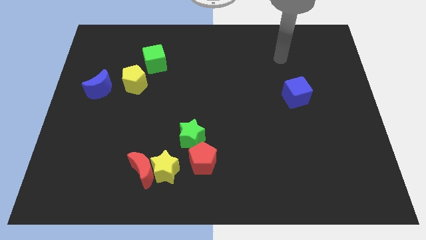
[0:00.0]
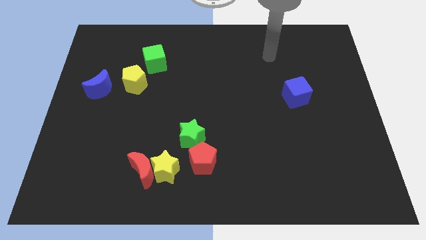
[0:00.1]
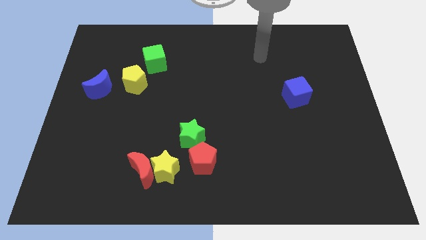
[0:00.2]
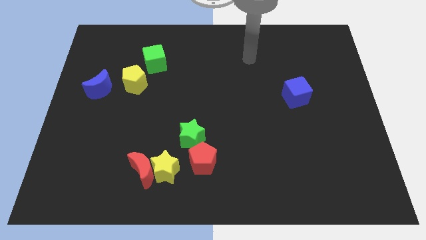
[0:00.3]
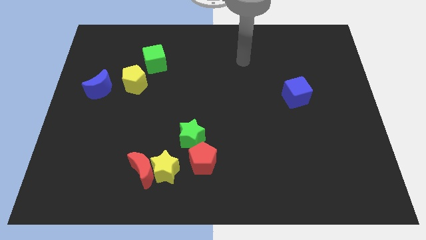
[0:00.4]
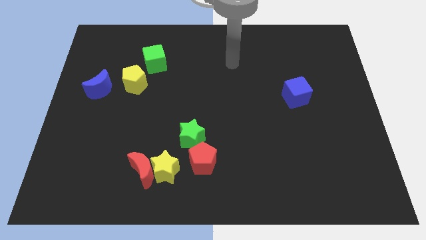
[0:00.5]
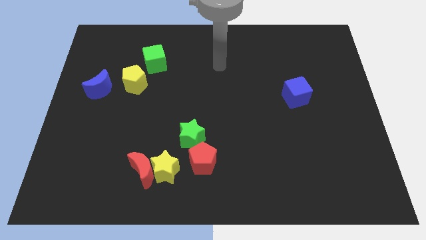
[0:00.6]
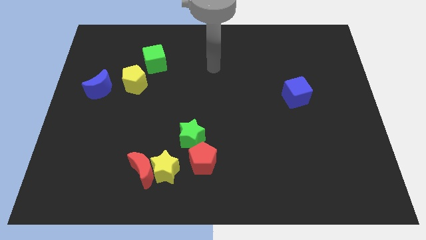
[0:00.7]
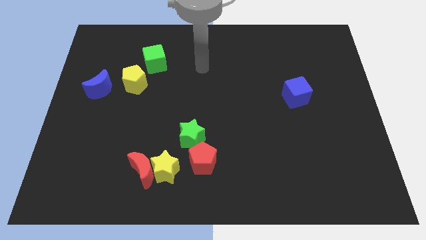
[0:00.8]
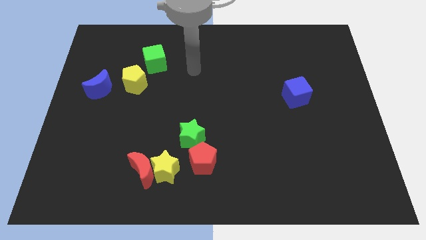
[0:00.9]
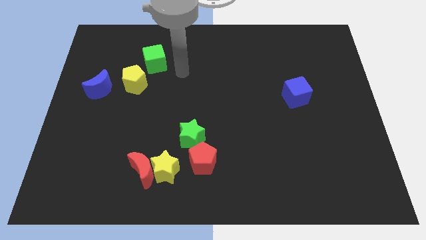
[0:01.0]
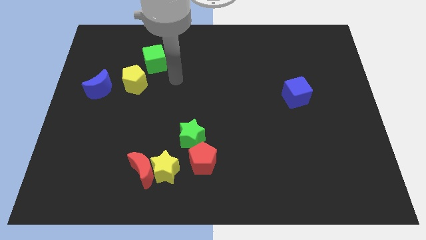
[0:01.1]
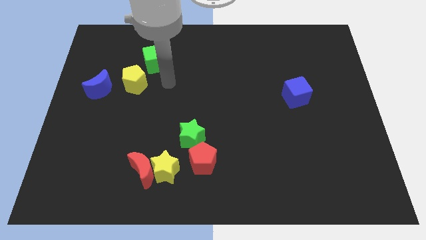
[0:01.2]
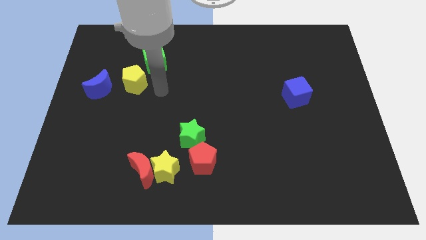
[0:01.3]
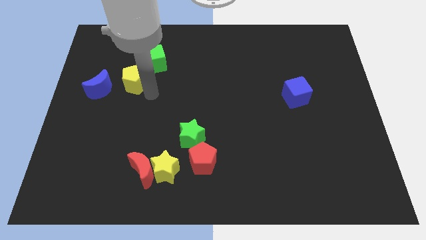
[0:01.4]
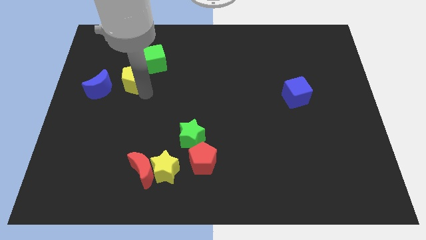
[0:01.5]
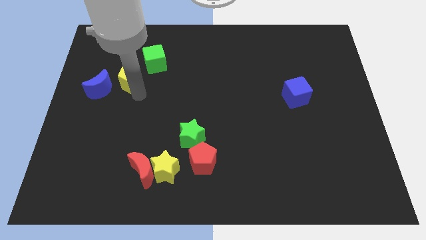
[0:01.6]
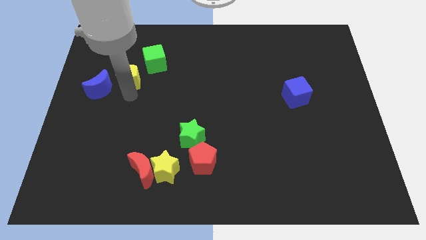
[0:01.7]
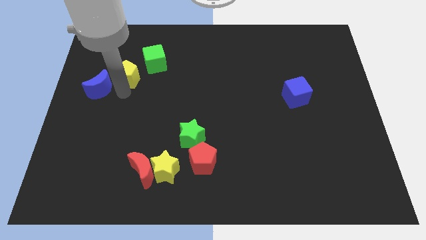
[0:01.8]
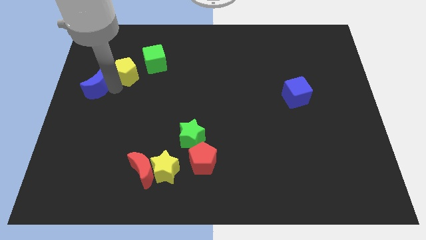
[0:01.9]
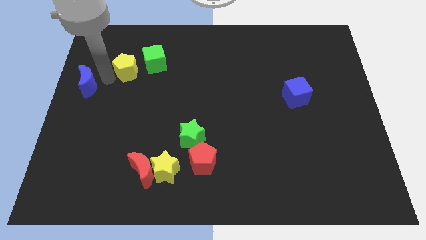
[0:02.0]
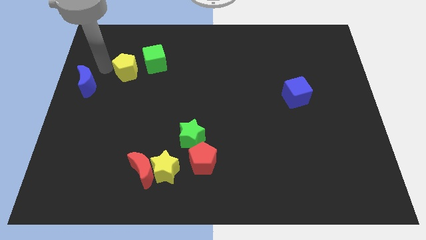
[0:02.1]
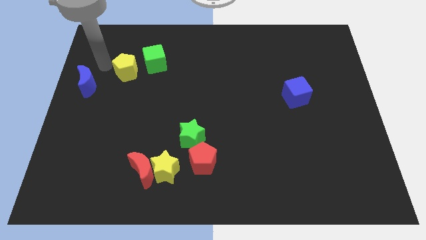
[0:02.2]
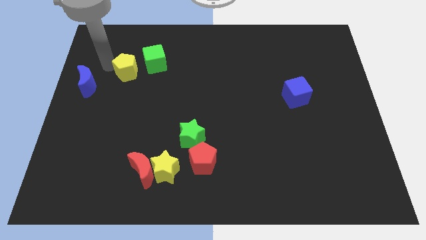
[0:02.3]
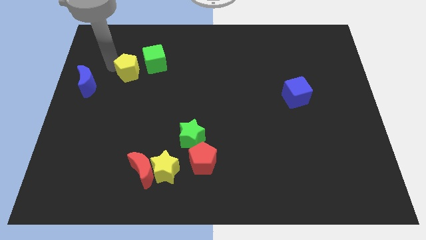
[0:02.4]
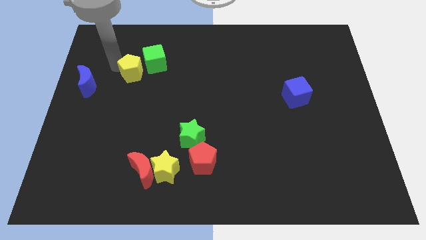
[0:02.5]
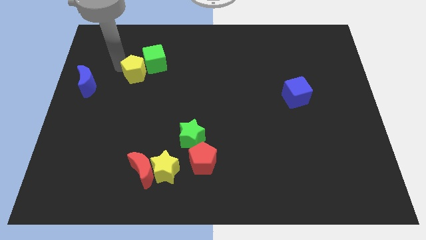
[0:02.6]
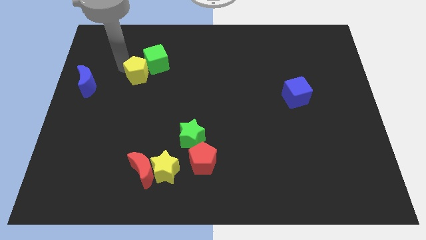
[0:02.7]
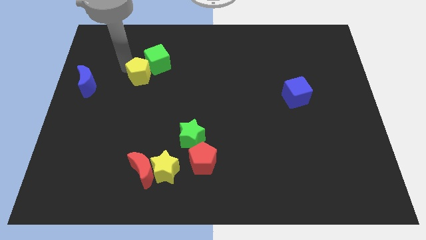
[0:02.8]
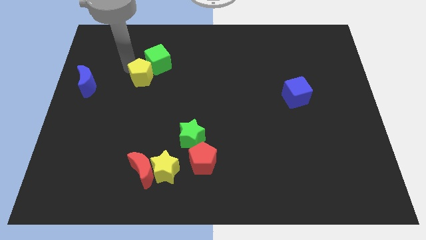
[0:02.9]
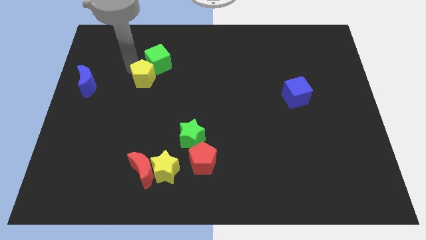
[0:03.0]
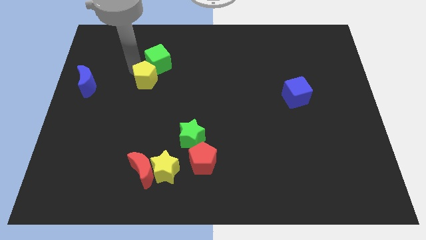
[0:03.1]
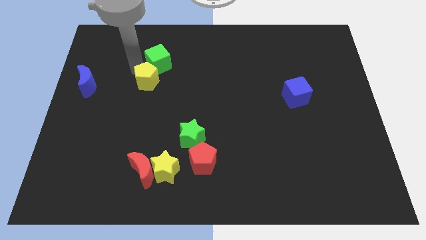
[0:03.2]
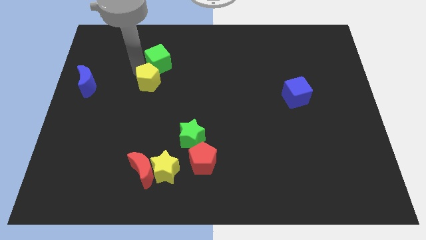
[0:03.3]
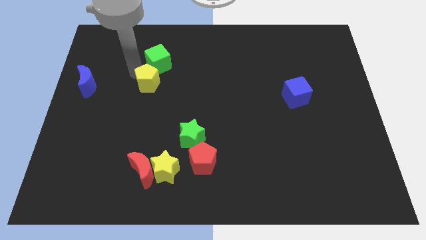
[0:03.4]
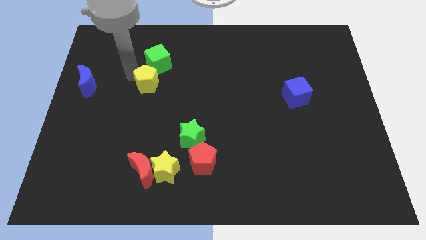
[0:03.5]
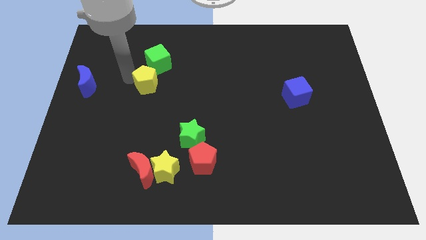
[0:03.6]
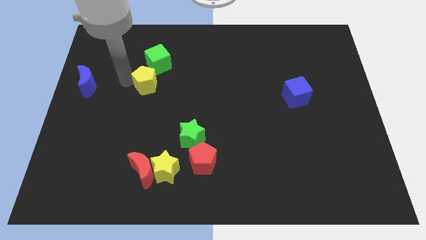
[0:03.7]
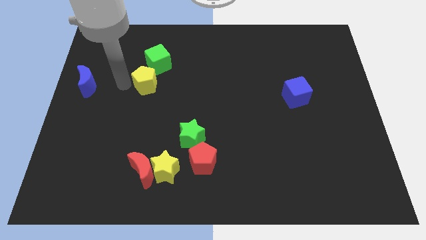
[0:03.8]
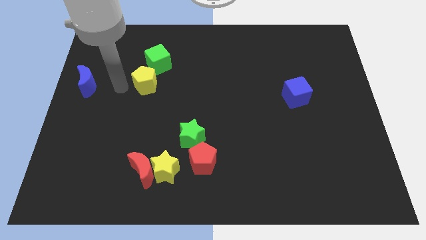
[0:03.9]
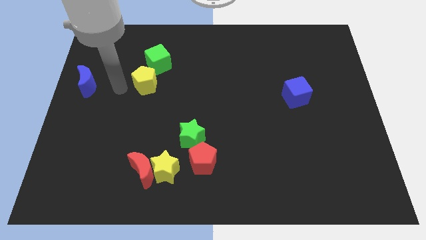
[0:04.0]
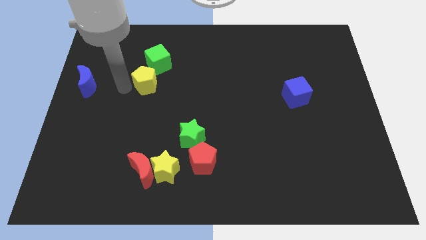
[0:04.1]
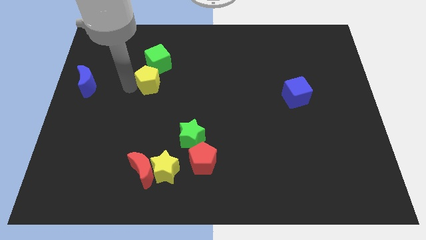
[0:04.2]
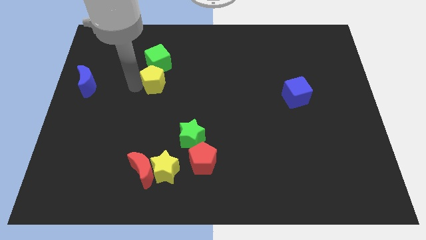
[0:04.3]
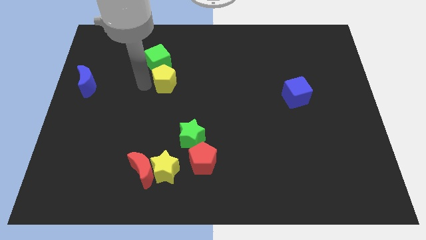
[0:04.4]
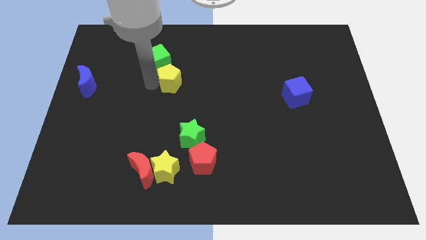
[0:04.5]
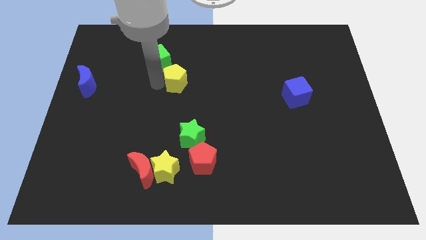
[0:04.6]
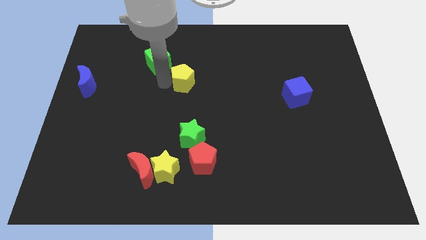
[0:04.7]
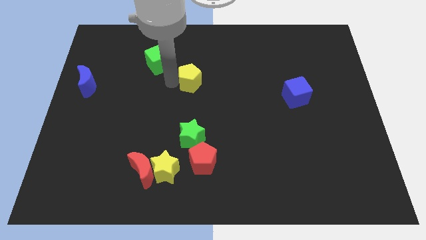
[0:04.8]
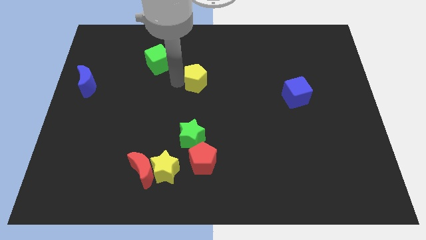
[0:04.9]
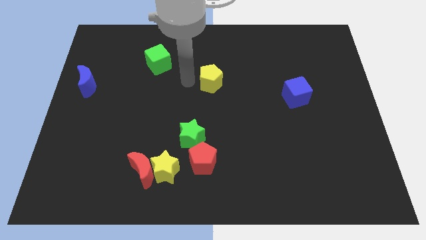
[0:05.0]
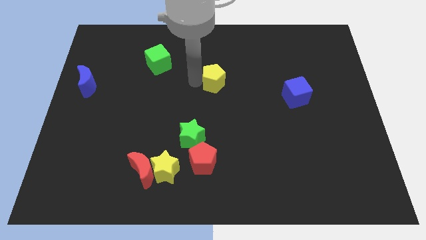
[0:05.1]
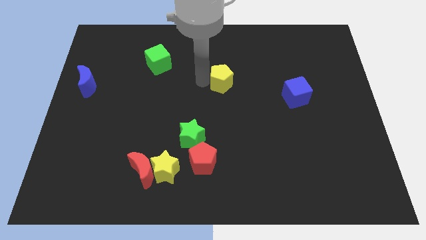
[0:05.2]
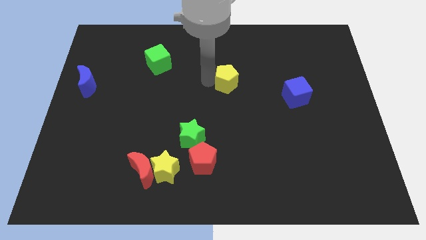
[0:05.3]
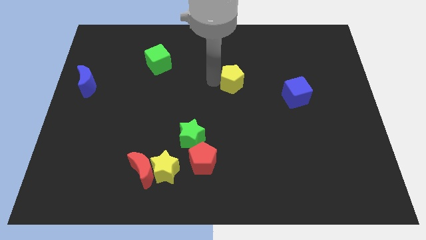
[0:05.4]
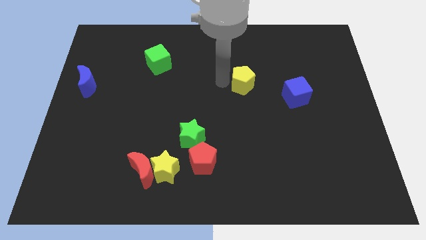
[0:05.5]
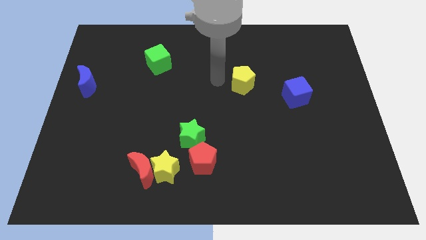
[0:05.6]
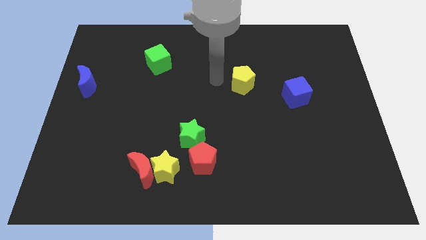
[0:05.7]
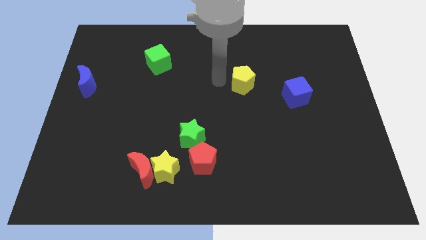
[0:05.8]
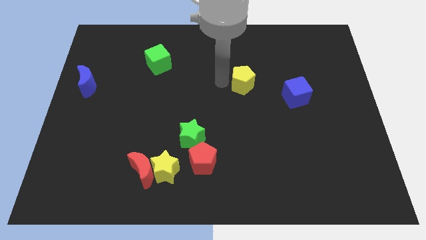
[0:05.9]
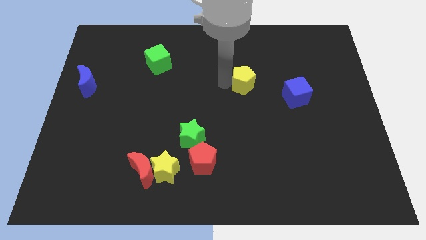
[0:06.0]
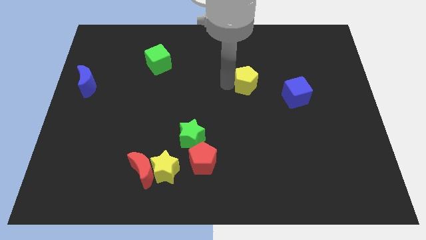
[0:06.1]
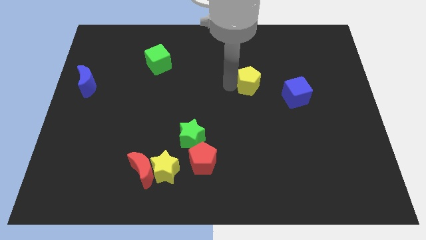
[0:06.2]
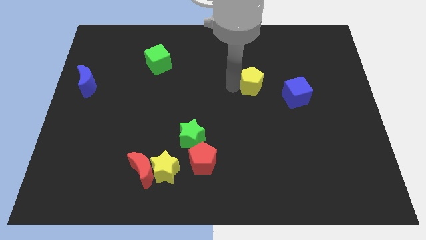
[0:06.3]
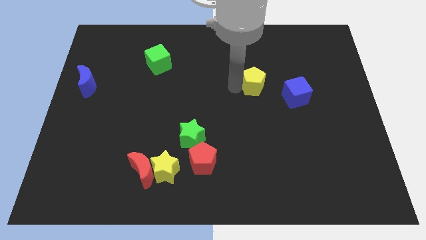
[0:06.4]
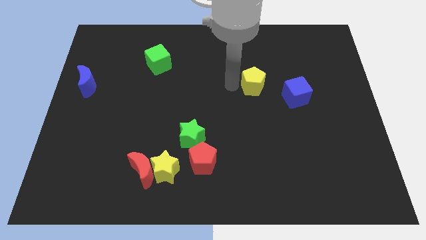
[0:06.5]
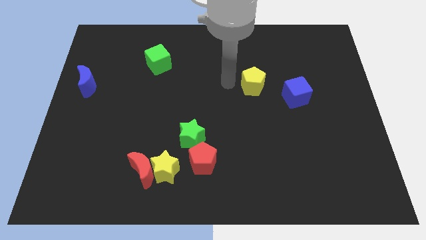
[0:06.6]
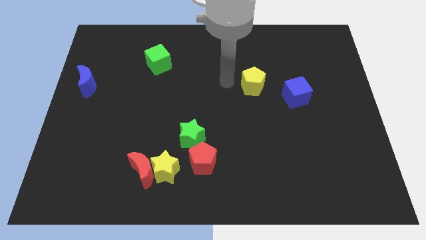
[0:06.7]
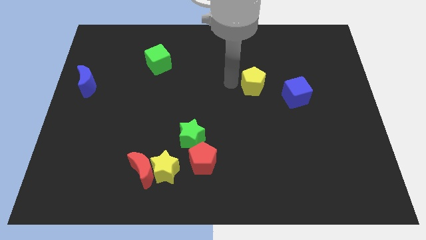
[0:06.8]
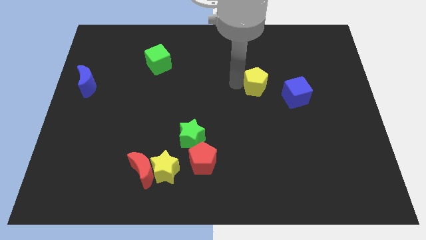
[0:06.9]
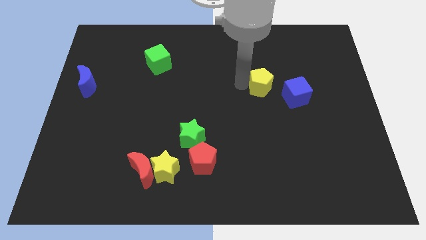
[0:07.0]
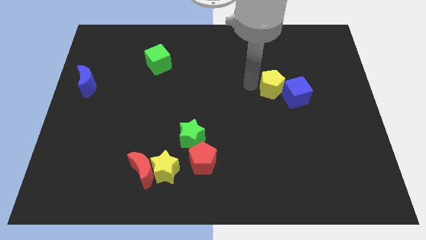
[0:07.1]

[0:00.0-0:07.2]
put the yellow pentagon towards the blue cube
